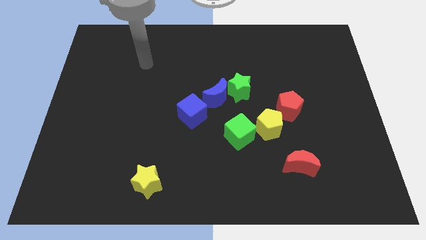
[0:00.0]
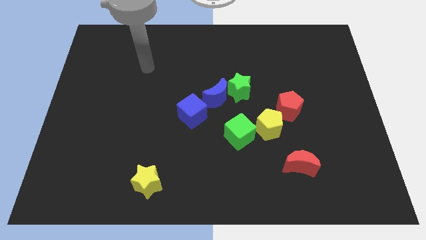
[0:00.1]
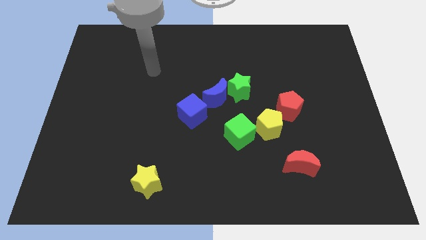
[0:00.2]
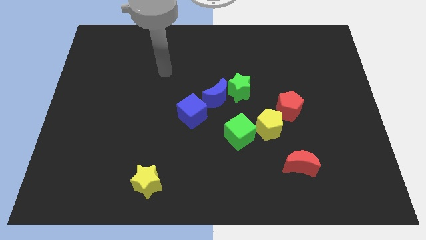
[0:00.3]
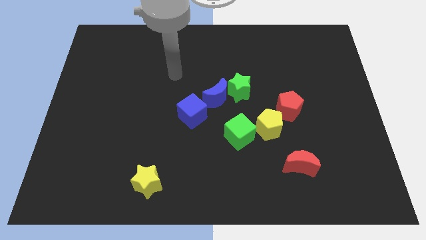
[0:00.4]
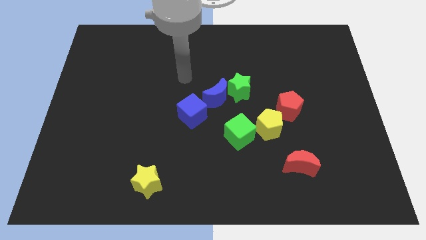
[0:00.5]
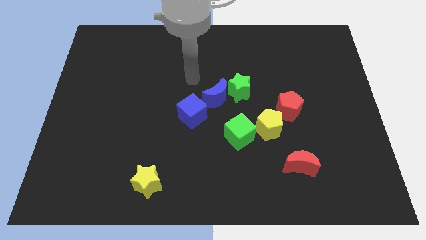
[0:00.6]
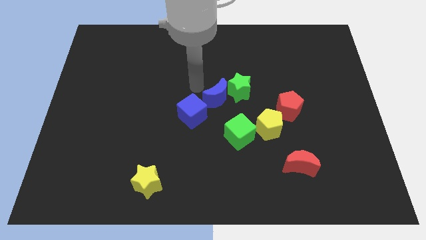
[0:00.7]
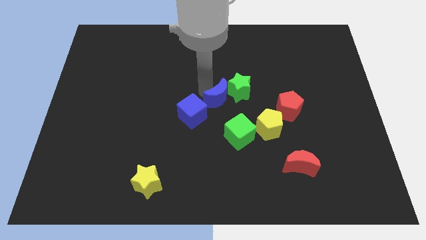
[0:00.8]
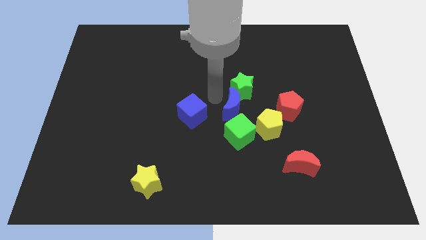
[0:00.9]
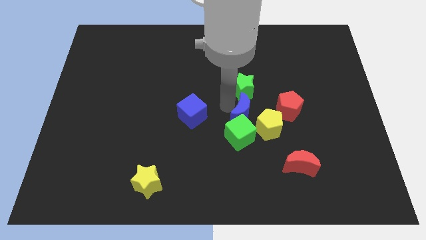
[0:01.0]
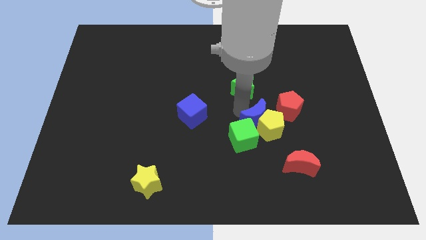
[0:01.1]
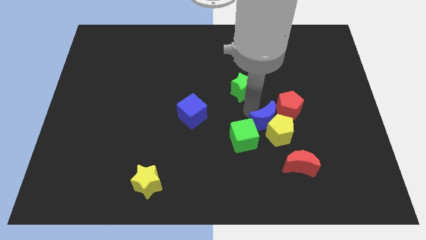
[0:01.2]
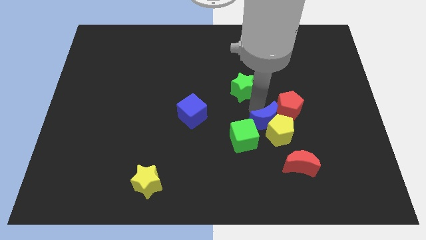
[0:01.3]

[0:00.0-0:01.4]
move the green star away from the blue moon

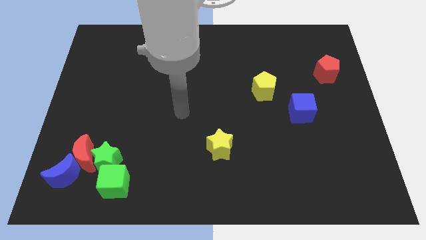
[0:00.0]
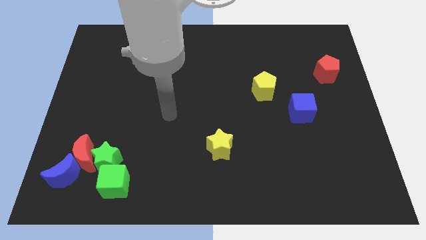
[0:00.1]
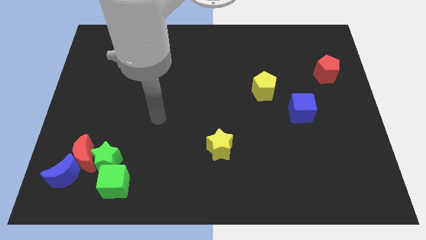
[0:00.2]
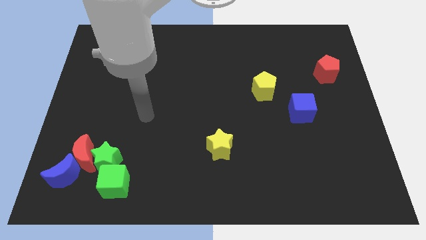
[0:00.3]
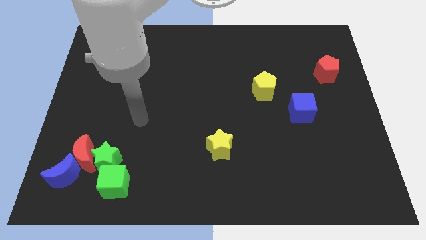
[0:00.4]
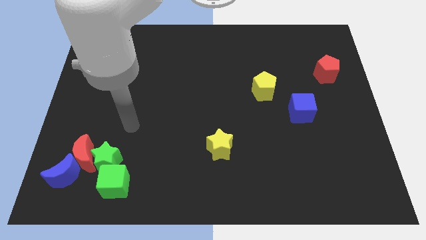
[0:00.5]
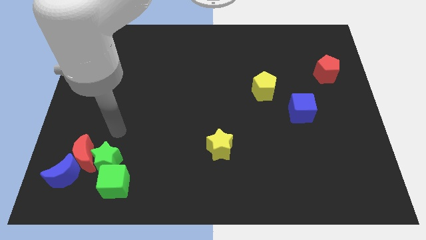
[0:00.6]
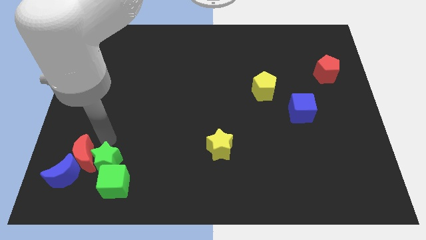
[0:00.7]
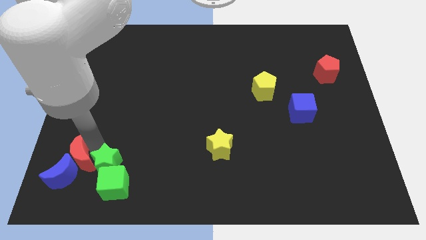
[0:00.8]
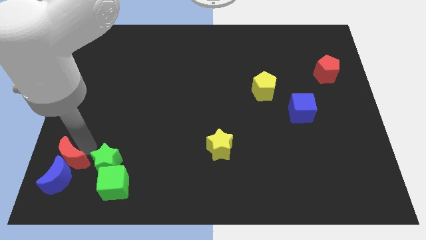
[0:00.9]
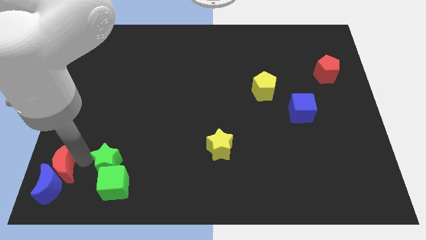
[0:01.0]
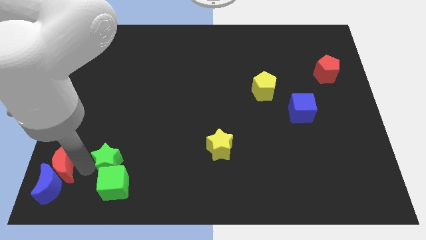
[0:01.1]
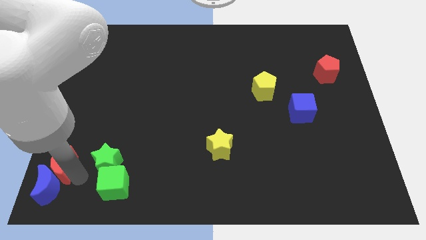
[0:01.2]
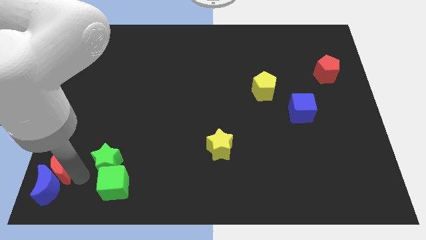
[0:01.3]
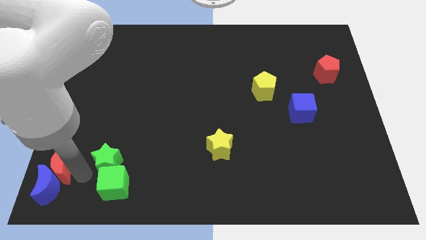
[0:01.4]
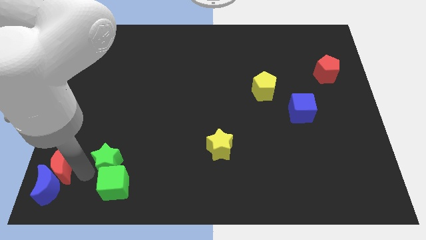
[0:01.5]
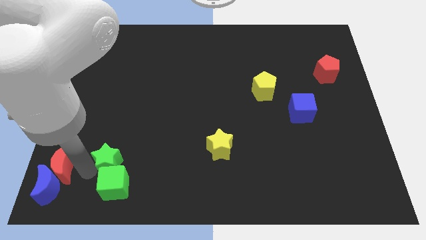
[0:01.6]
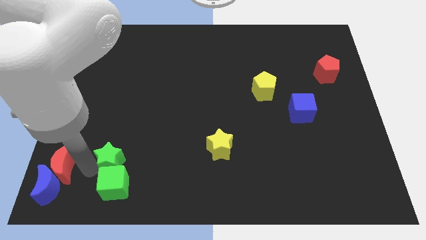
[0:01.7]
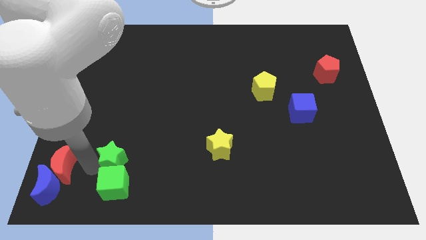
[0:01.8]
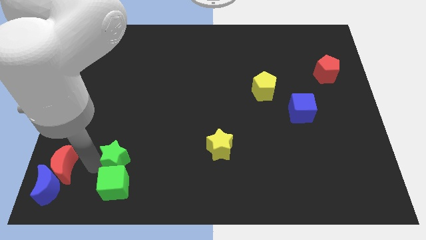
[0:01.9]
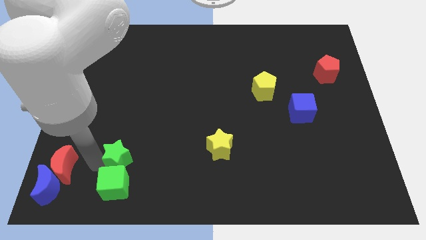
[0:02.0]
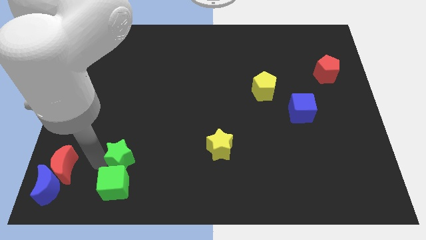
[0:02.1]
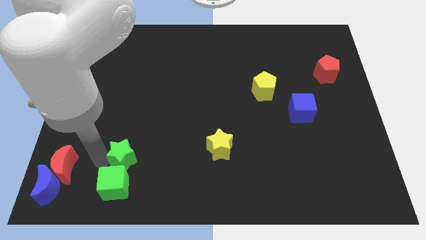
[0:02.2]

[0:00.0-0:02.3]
move the green star away from the clump

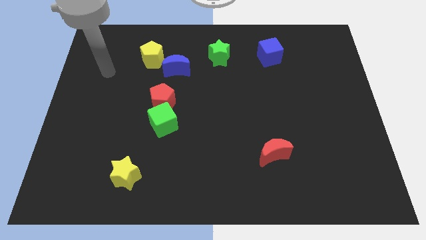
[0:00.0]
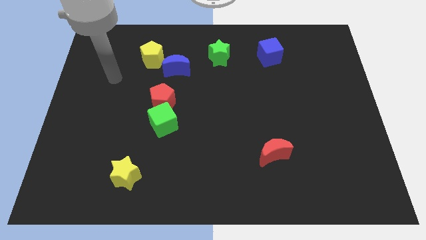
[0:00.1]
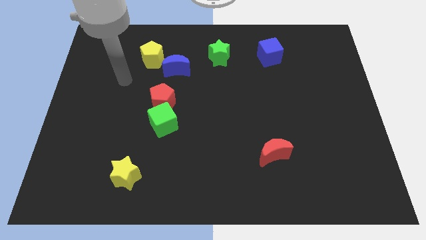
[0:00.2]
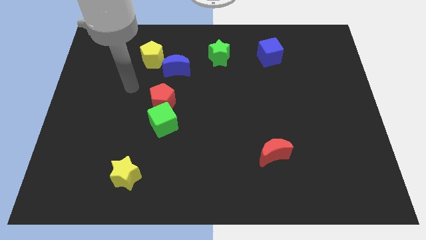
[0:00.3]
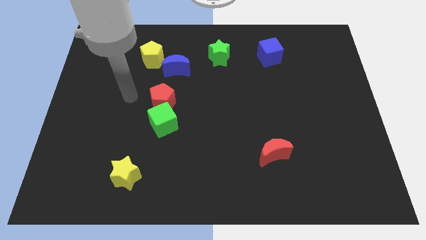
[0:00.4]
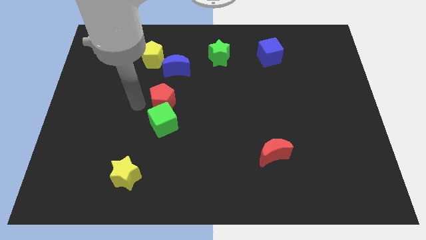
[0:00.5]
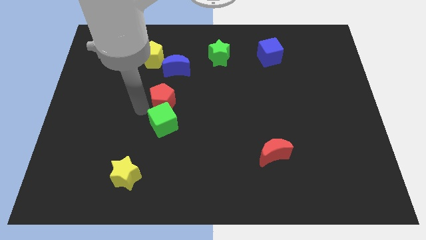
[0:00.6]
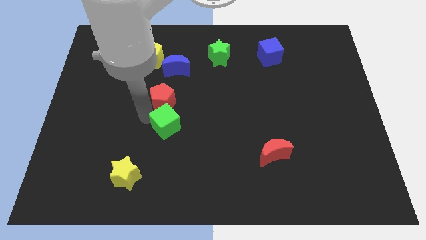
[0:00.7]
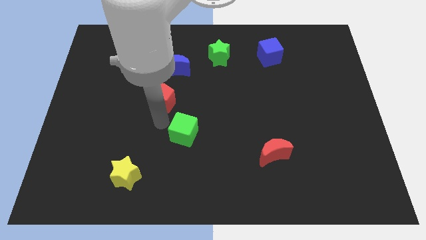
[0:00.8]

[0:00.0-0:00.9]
separate the red pentagon from the green cube

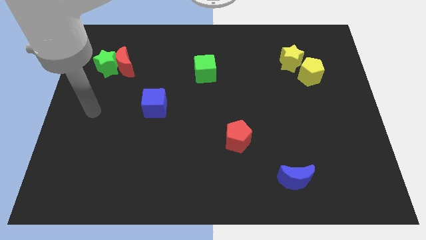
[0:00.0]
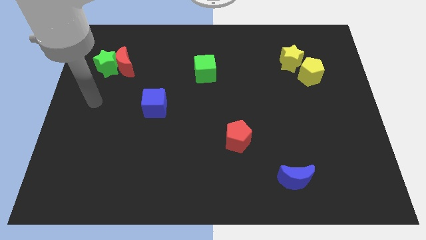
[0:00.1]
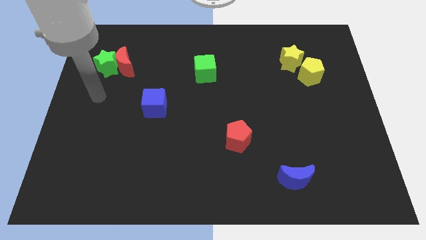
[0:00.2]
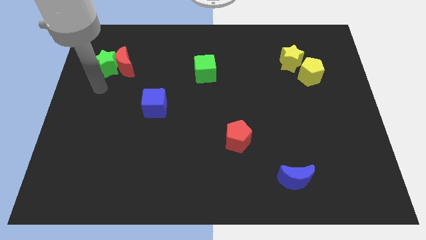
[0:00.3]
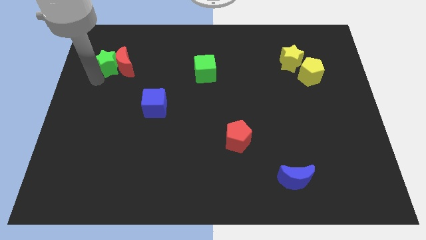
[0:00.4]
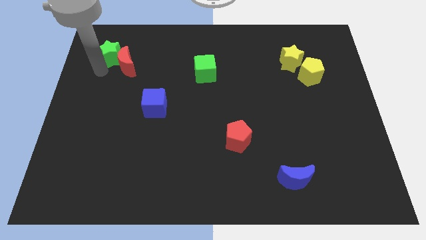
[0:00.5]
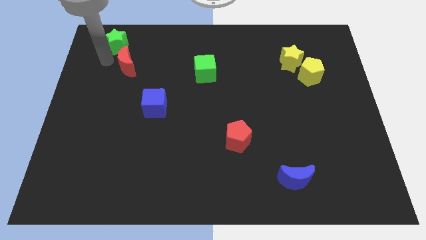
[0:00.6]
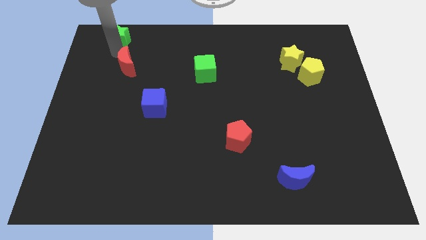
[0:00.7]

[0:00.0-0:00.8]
move the red moon away from the green star

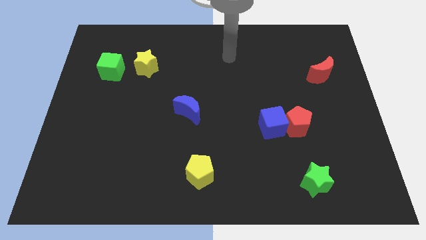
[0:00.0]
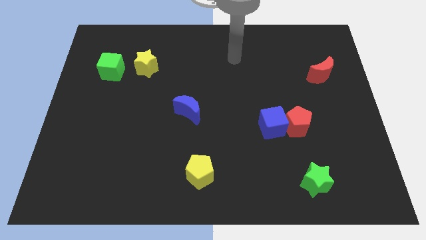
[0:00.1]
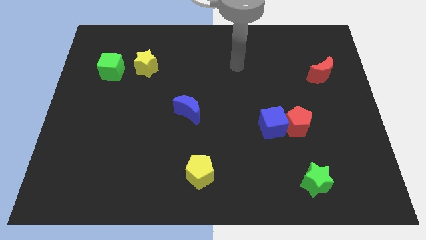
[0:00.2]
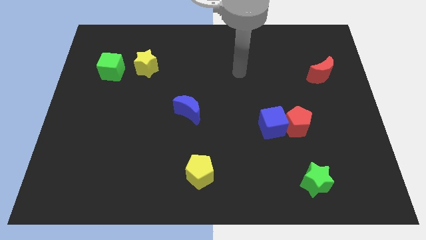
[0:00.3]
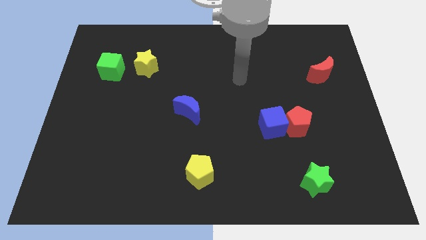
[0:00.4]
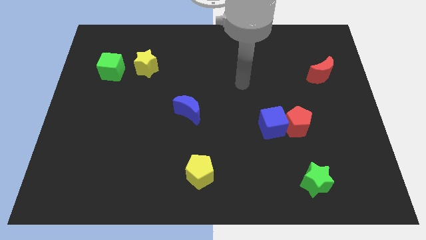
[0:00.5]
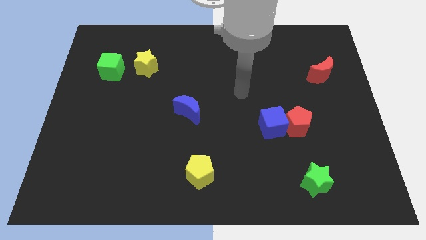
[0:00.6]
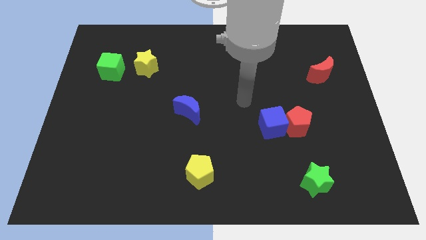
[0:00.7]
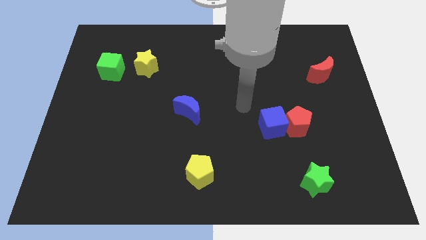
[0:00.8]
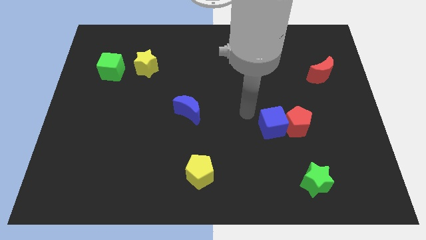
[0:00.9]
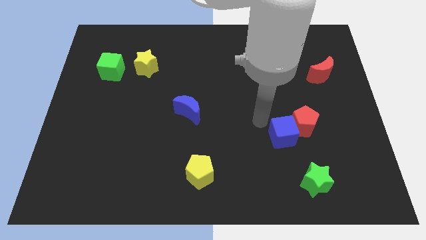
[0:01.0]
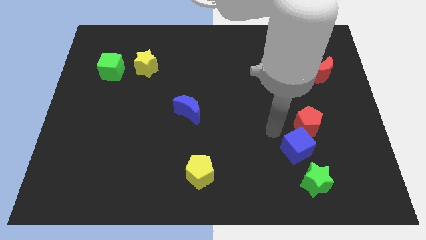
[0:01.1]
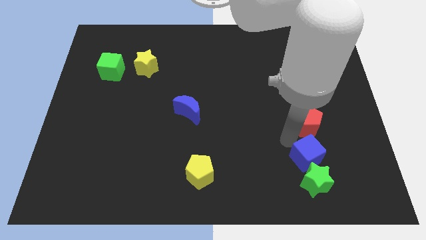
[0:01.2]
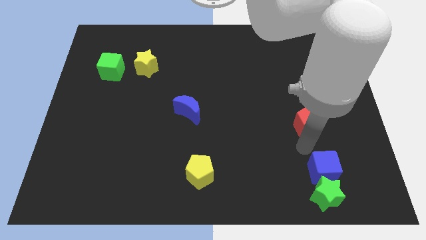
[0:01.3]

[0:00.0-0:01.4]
pull the red pentagon apart from the blue cube

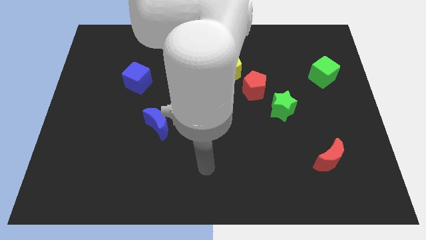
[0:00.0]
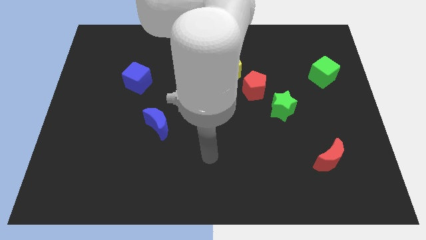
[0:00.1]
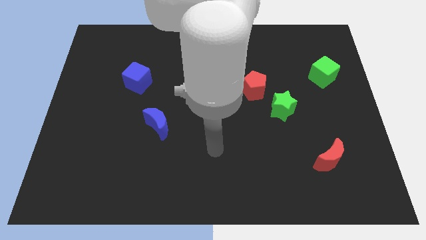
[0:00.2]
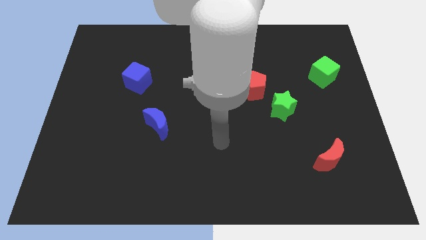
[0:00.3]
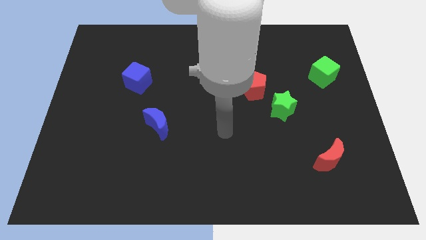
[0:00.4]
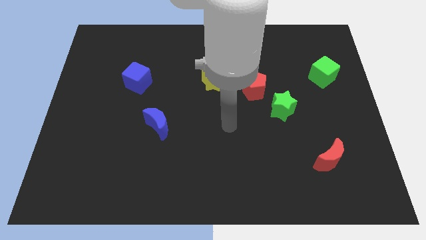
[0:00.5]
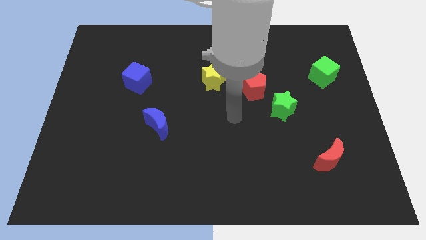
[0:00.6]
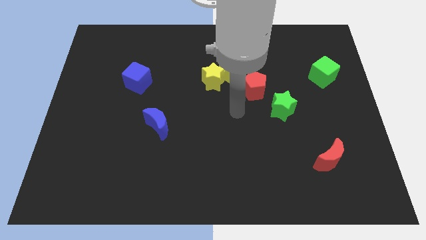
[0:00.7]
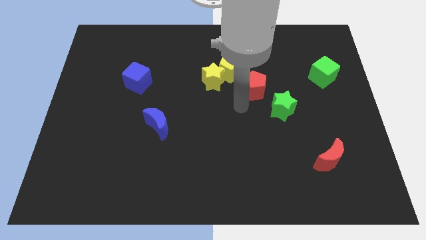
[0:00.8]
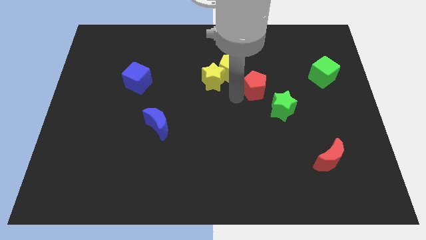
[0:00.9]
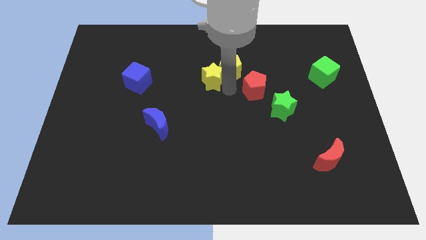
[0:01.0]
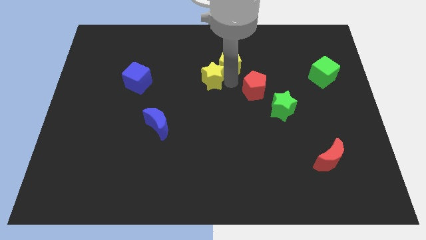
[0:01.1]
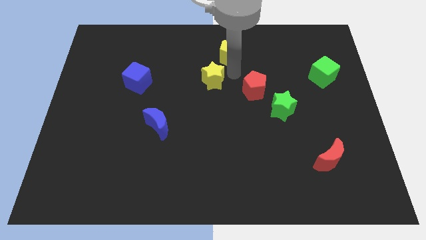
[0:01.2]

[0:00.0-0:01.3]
move the yellow star away from the yellow pentagon

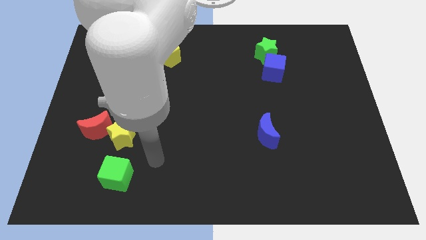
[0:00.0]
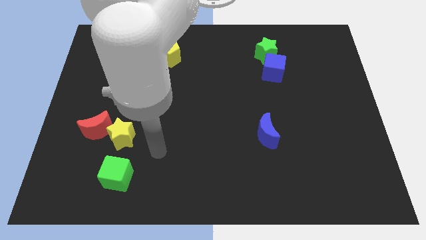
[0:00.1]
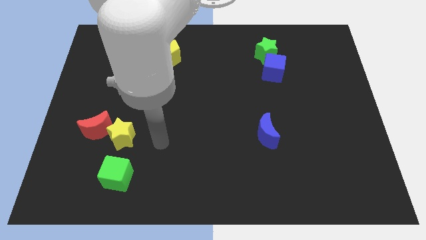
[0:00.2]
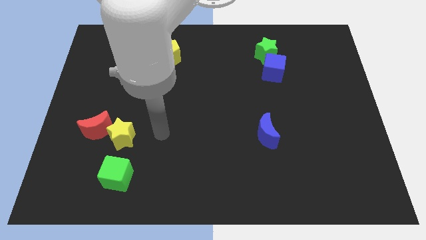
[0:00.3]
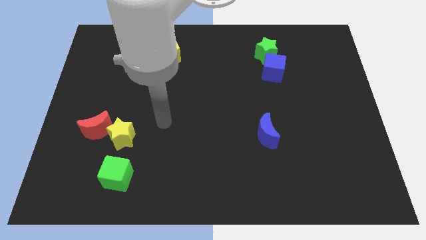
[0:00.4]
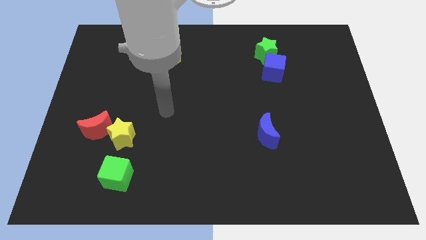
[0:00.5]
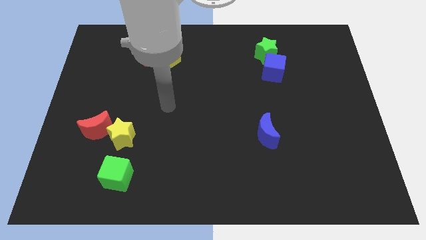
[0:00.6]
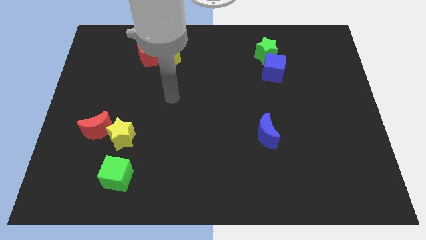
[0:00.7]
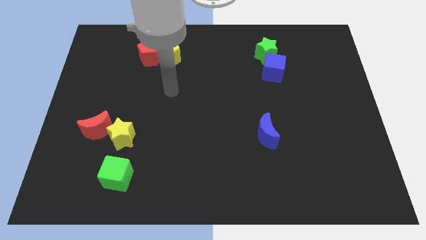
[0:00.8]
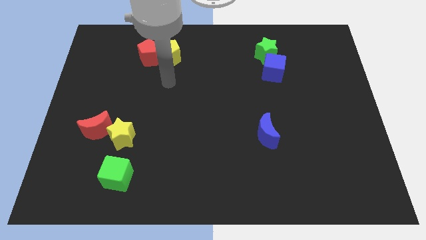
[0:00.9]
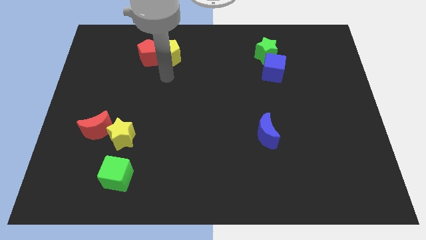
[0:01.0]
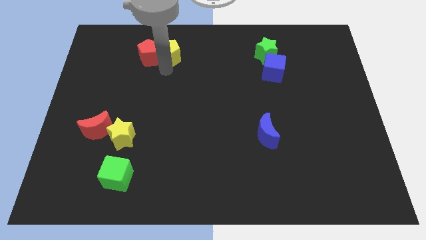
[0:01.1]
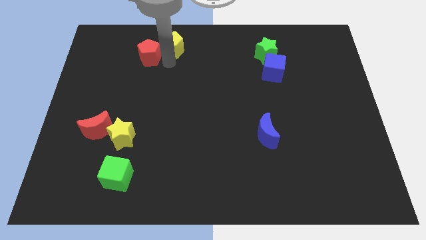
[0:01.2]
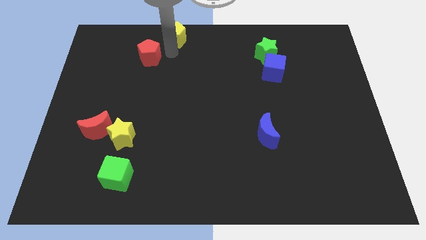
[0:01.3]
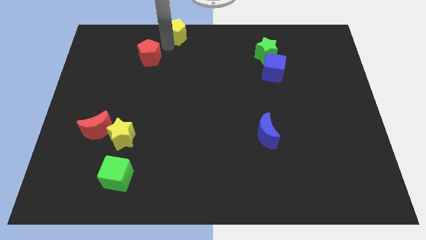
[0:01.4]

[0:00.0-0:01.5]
pull the red pentagon apart from the yellow pentagon
